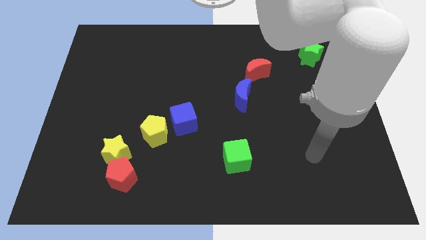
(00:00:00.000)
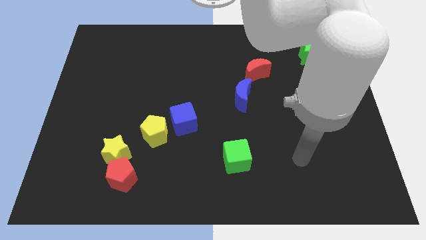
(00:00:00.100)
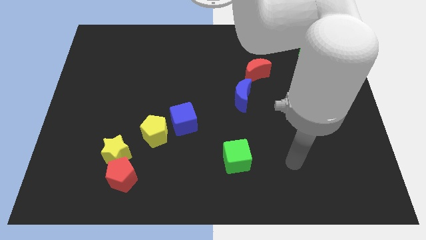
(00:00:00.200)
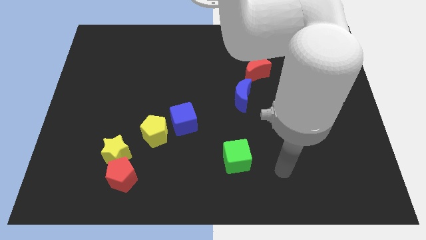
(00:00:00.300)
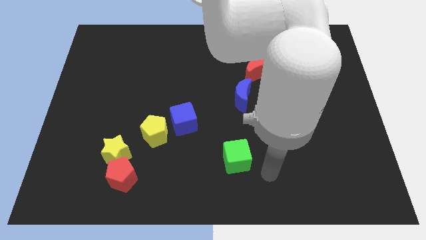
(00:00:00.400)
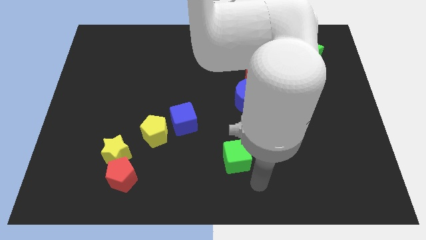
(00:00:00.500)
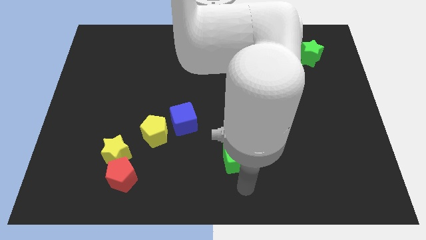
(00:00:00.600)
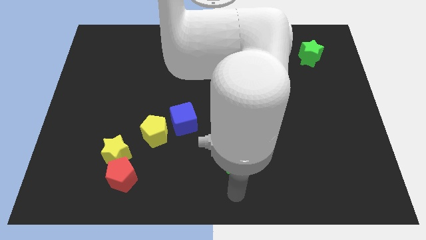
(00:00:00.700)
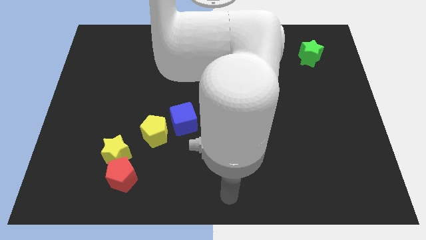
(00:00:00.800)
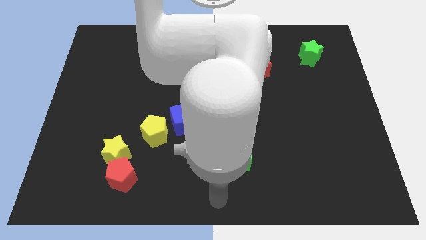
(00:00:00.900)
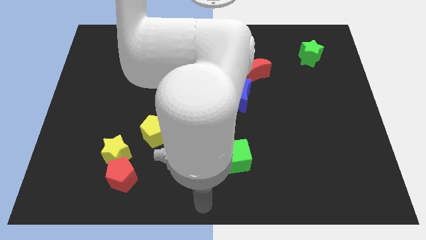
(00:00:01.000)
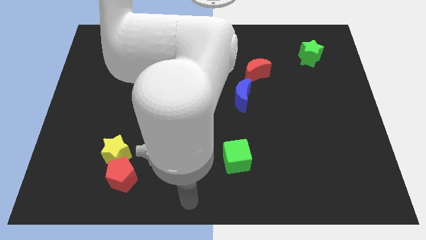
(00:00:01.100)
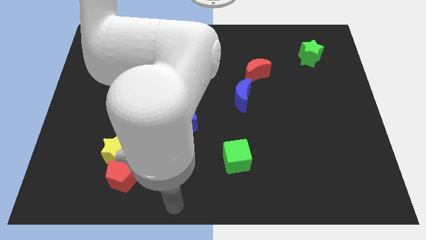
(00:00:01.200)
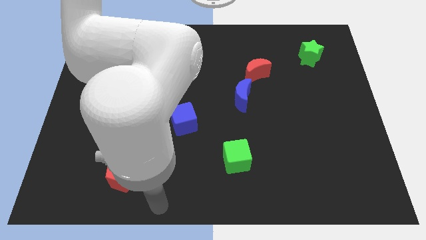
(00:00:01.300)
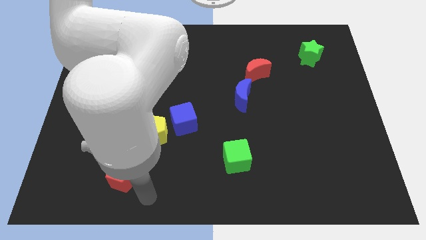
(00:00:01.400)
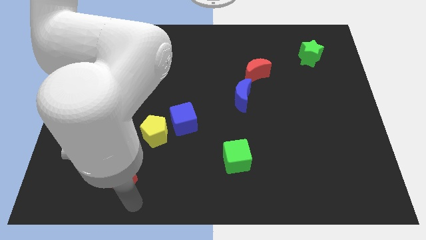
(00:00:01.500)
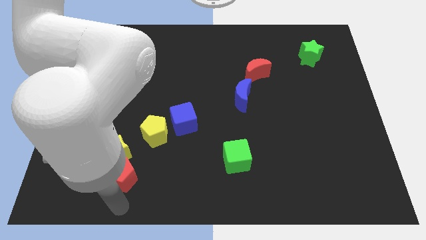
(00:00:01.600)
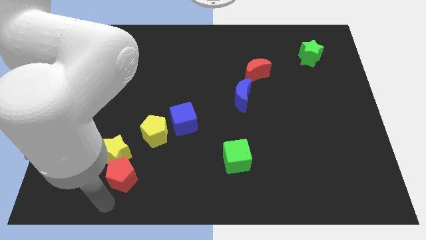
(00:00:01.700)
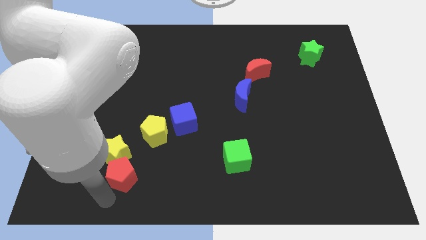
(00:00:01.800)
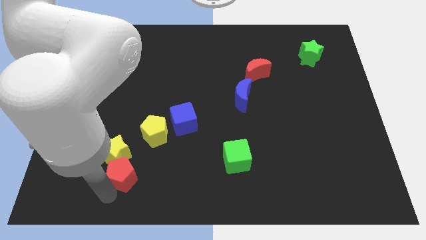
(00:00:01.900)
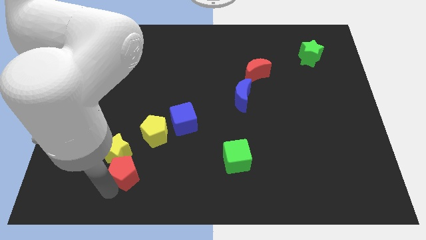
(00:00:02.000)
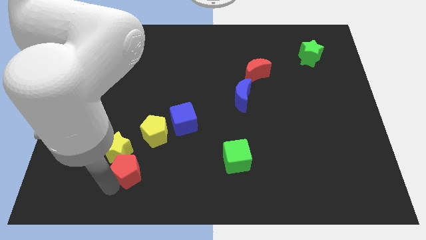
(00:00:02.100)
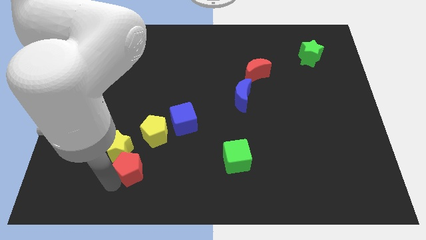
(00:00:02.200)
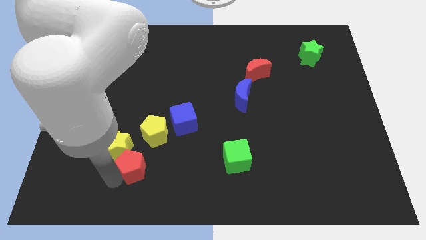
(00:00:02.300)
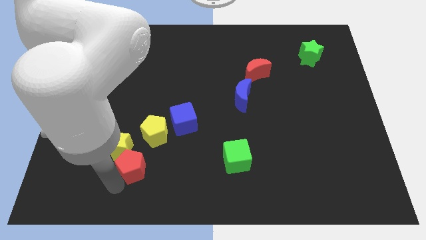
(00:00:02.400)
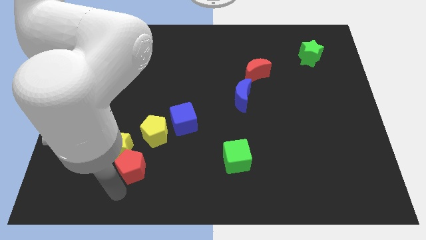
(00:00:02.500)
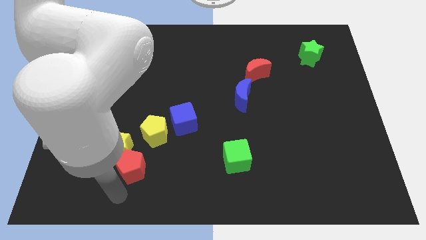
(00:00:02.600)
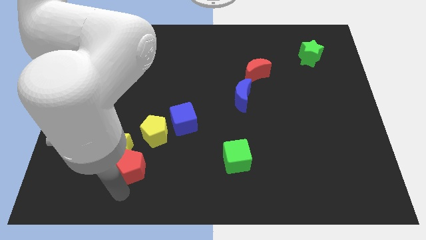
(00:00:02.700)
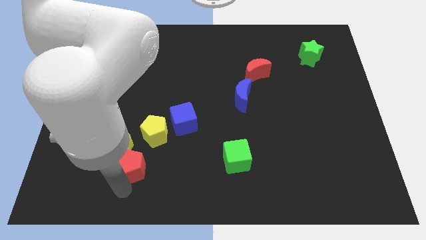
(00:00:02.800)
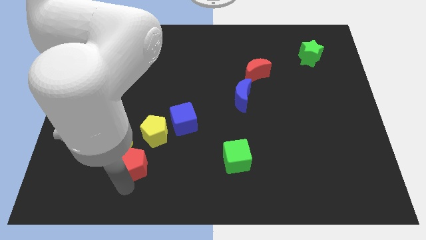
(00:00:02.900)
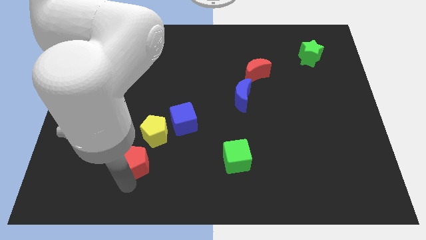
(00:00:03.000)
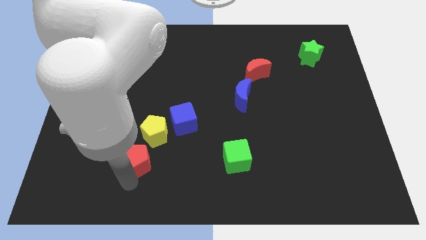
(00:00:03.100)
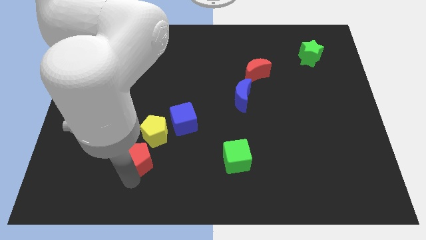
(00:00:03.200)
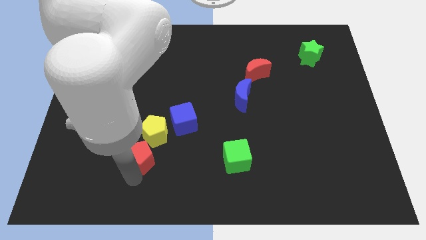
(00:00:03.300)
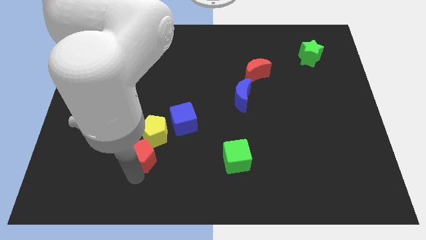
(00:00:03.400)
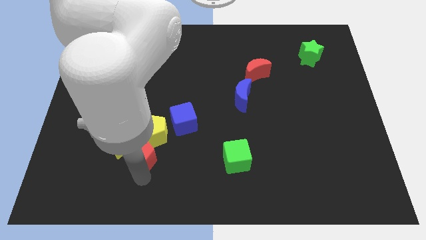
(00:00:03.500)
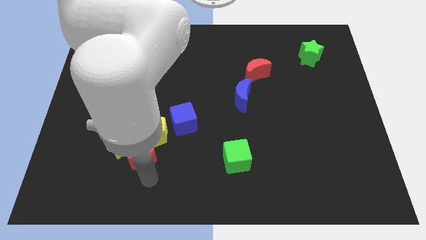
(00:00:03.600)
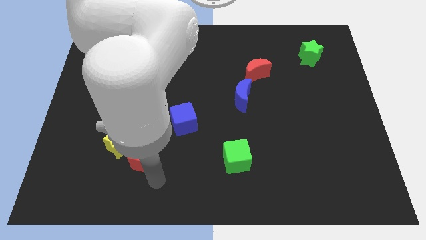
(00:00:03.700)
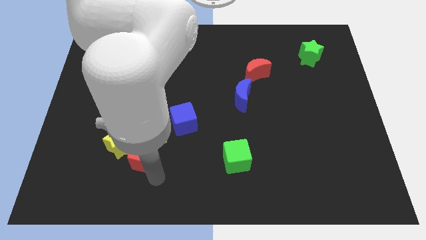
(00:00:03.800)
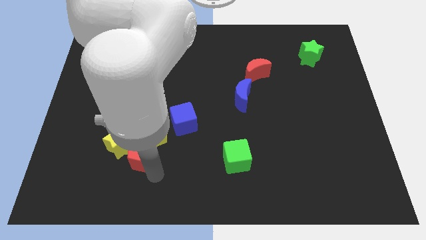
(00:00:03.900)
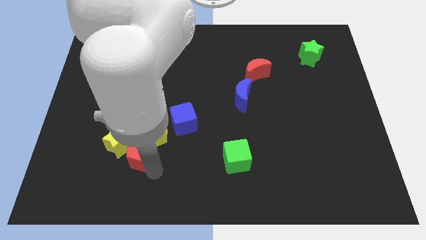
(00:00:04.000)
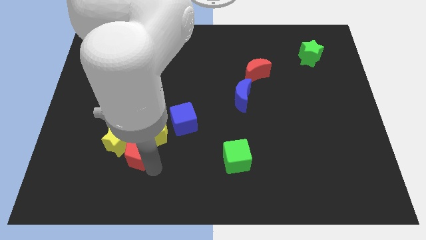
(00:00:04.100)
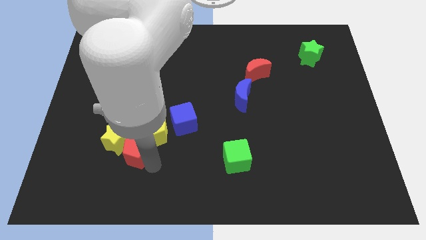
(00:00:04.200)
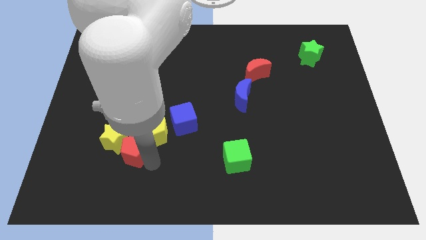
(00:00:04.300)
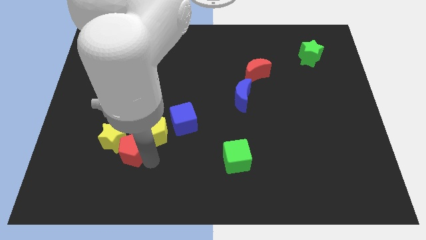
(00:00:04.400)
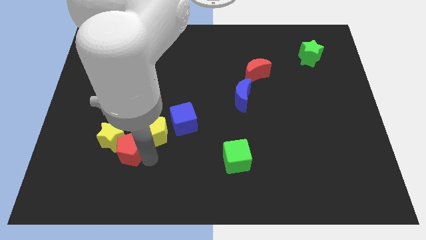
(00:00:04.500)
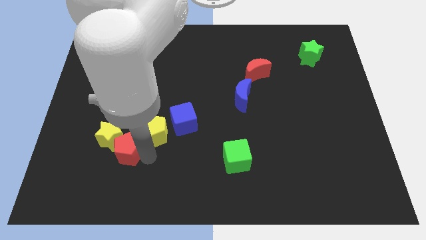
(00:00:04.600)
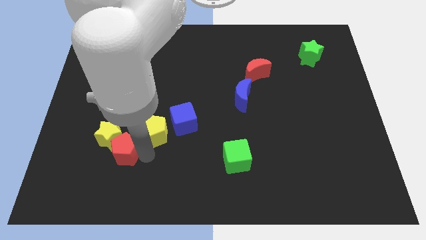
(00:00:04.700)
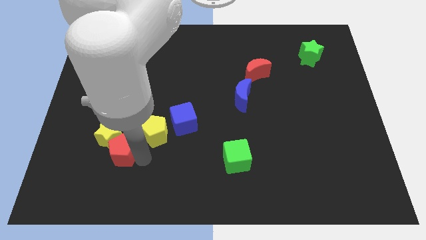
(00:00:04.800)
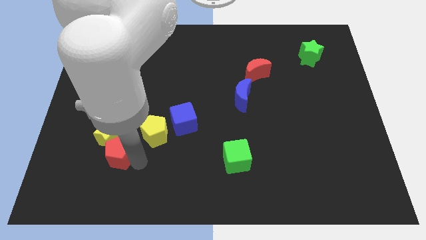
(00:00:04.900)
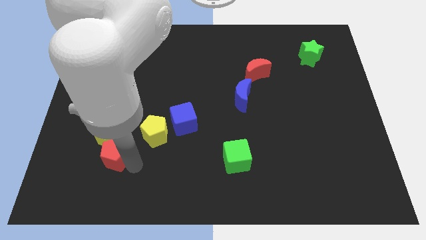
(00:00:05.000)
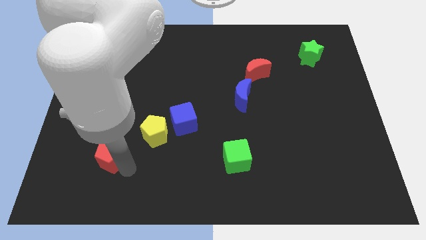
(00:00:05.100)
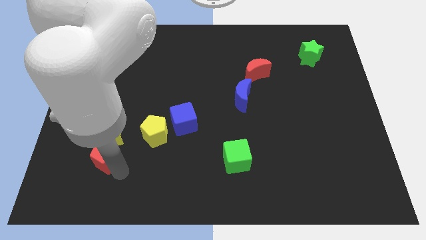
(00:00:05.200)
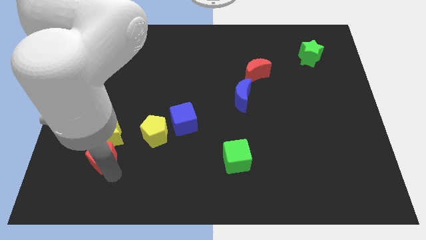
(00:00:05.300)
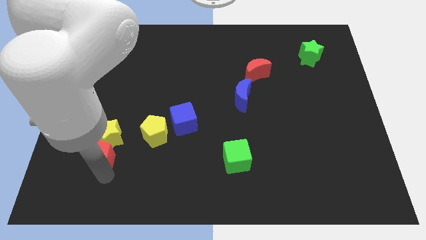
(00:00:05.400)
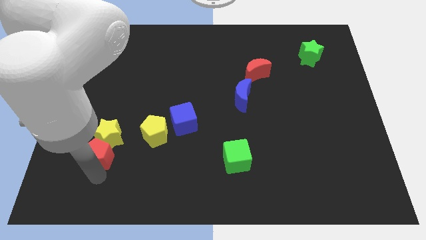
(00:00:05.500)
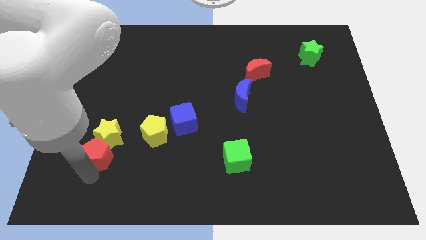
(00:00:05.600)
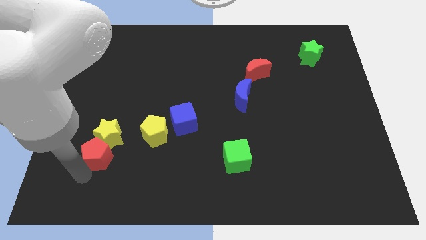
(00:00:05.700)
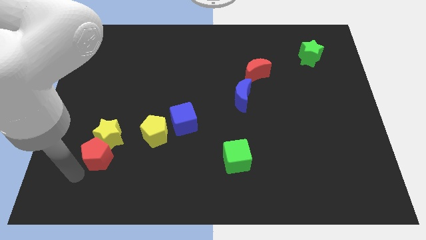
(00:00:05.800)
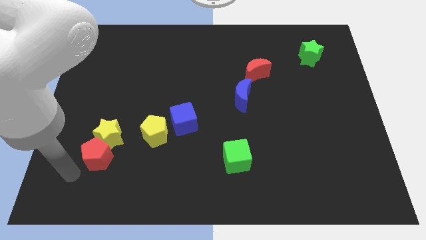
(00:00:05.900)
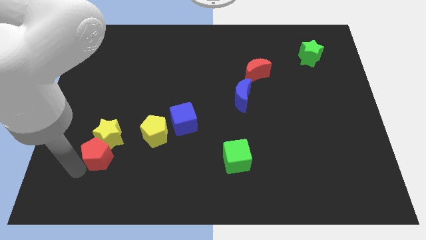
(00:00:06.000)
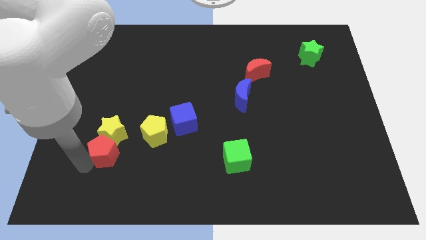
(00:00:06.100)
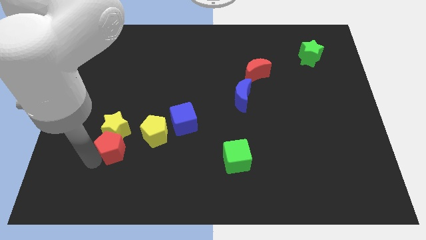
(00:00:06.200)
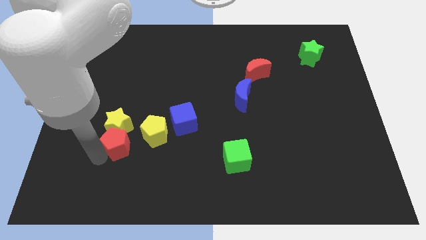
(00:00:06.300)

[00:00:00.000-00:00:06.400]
slide the red pentagon up a bit

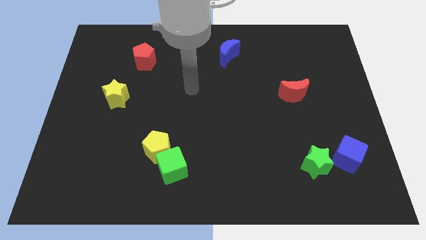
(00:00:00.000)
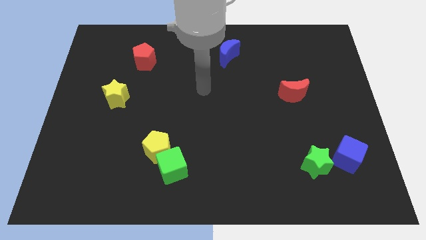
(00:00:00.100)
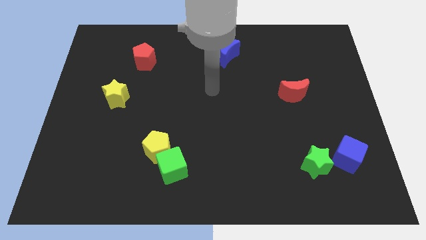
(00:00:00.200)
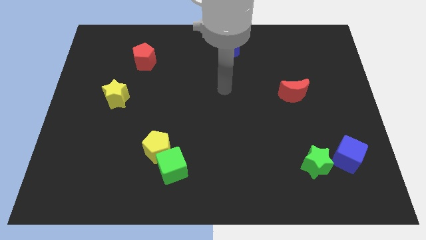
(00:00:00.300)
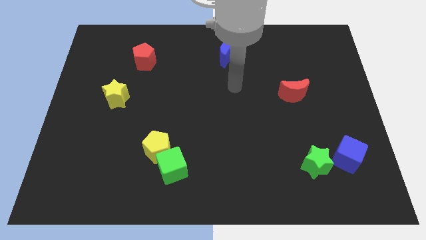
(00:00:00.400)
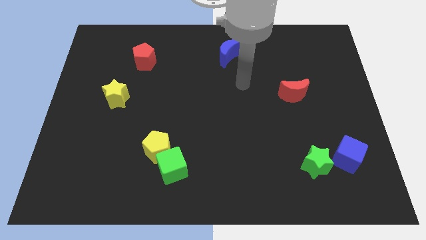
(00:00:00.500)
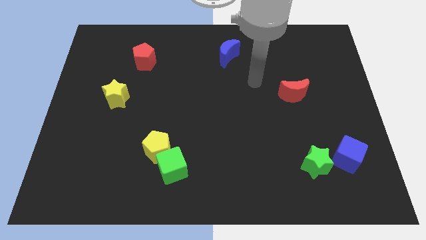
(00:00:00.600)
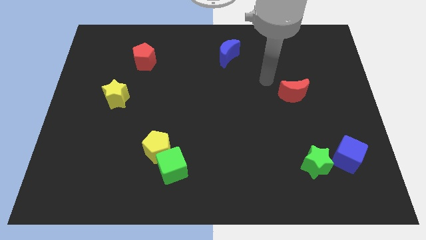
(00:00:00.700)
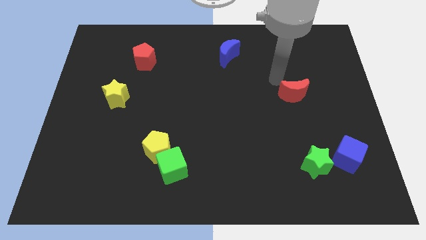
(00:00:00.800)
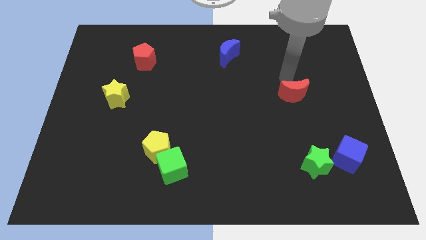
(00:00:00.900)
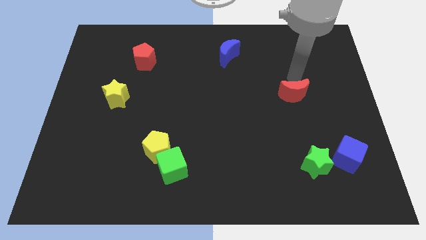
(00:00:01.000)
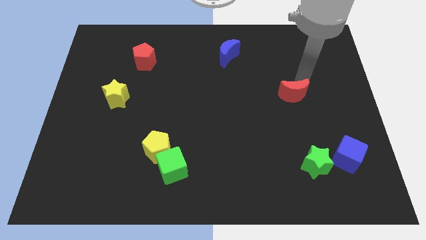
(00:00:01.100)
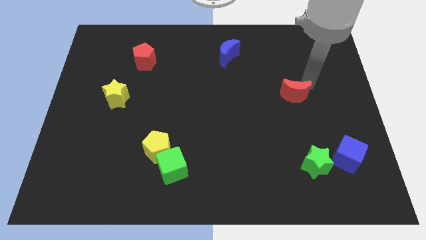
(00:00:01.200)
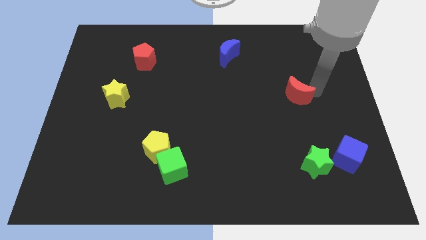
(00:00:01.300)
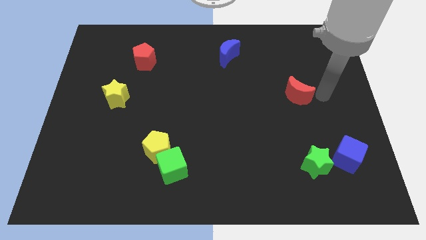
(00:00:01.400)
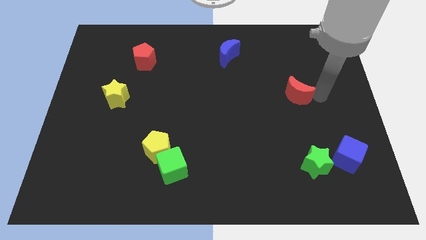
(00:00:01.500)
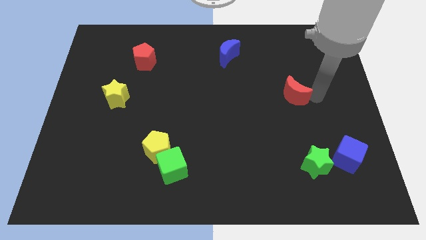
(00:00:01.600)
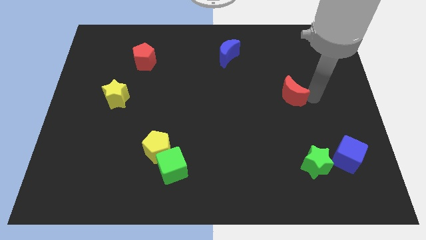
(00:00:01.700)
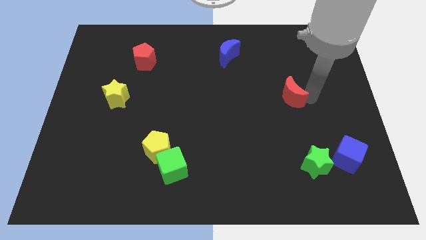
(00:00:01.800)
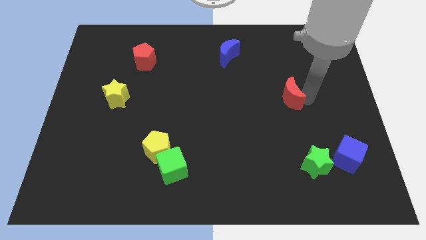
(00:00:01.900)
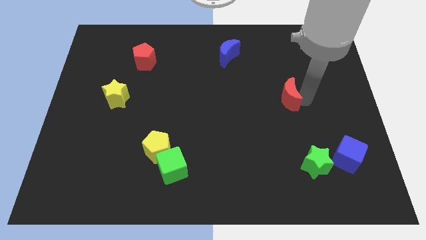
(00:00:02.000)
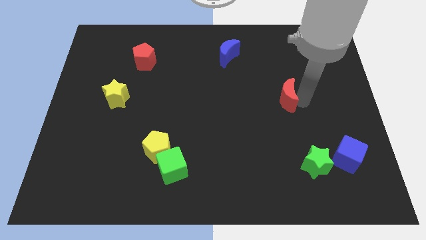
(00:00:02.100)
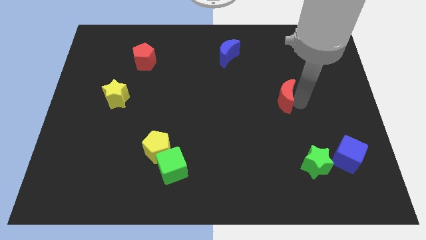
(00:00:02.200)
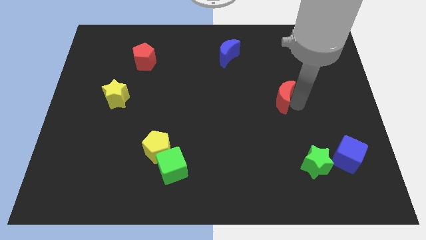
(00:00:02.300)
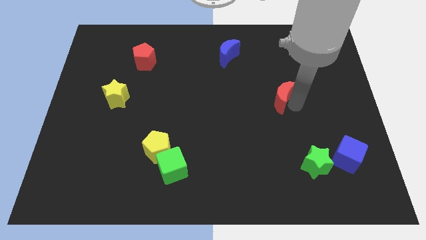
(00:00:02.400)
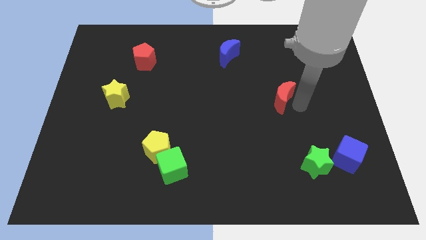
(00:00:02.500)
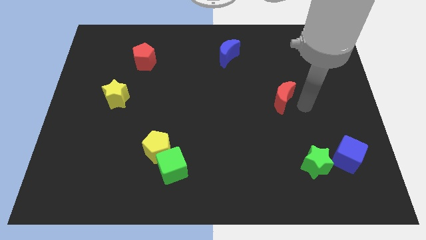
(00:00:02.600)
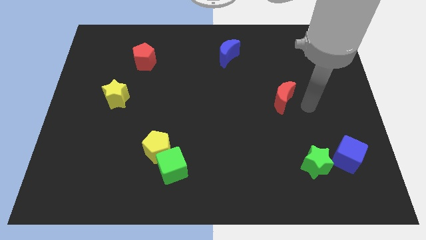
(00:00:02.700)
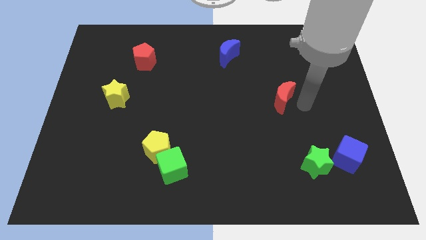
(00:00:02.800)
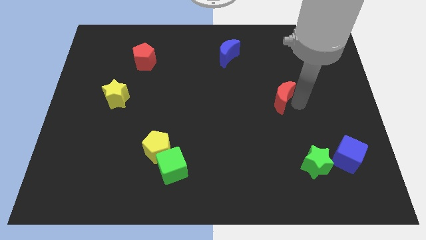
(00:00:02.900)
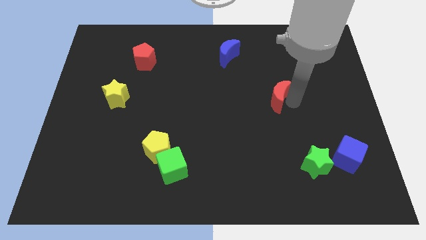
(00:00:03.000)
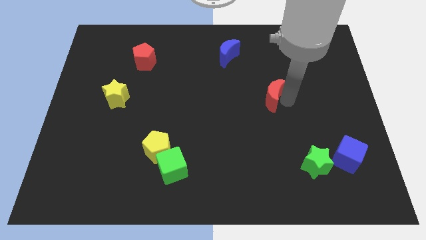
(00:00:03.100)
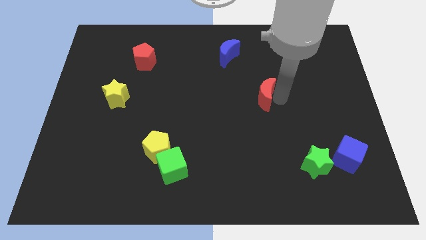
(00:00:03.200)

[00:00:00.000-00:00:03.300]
slightly slide the red moon to the left
